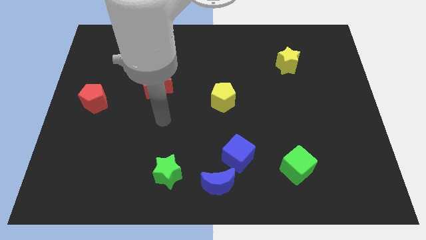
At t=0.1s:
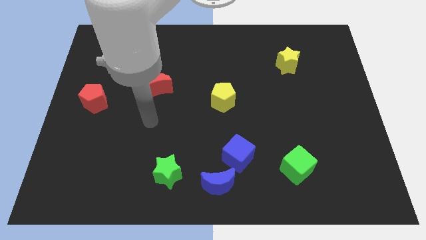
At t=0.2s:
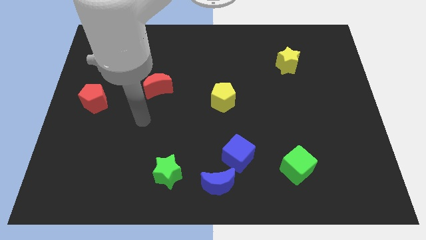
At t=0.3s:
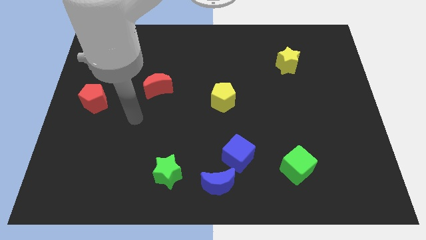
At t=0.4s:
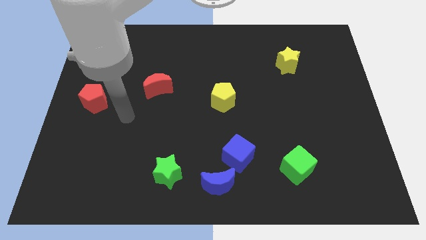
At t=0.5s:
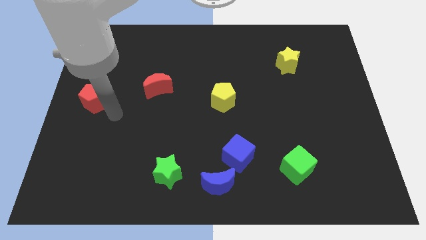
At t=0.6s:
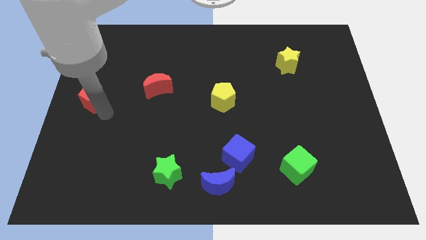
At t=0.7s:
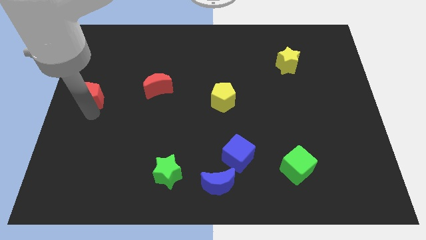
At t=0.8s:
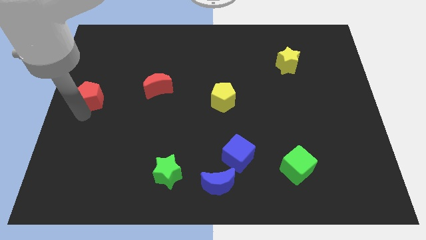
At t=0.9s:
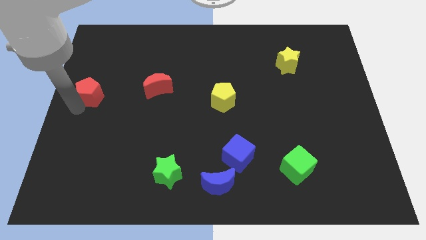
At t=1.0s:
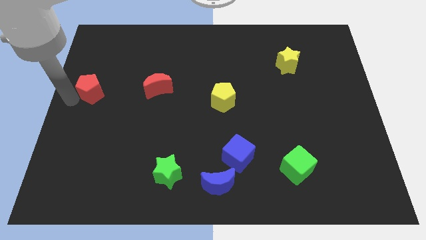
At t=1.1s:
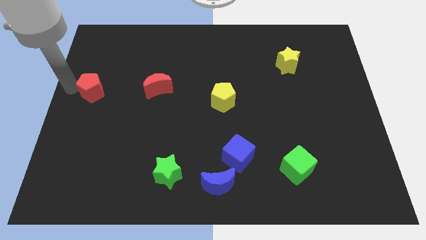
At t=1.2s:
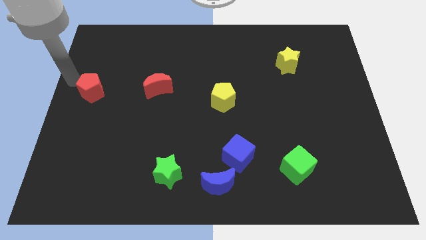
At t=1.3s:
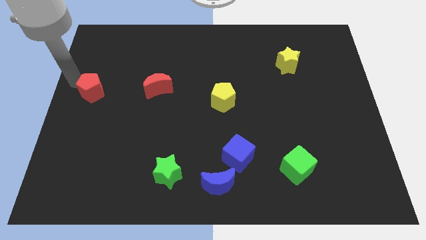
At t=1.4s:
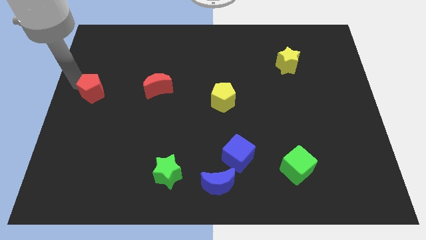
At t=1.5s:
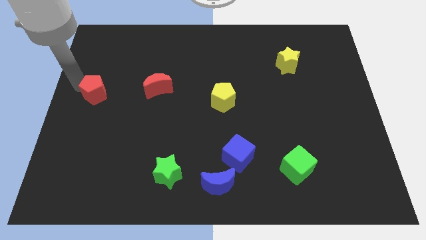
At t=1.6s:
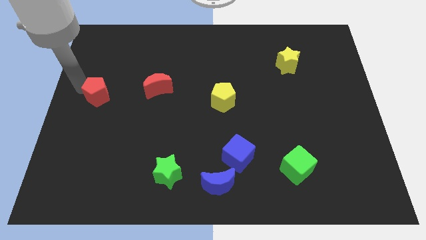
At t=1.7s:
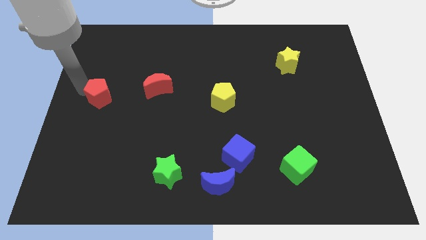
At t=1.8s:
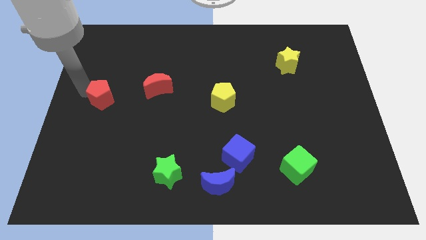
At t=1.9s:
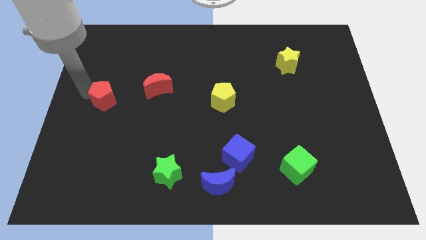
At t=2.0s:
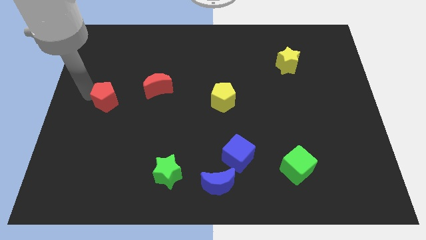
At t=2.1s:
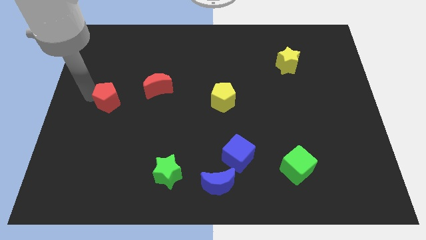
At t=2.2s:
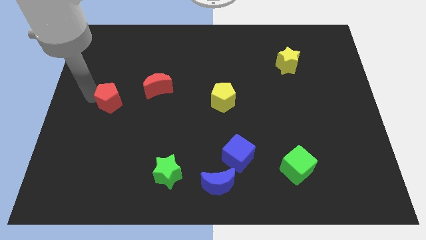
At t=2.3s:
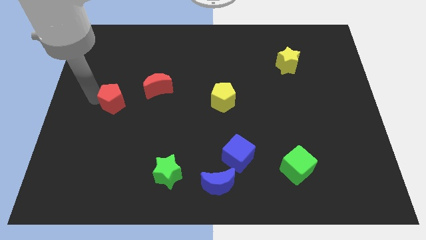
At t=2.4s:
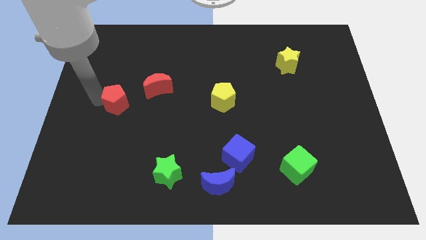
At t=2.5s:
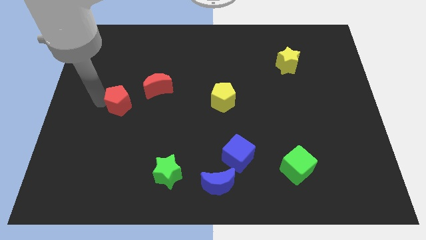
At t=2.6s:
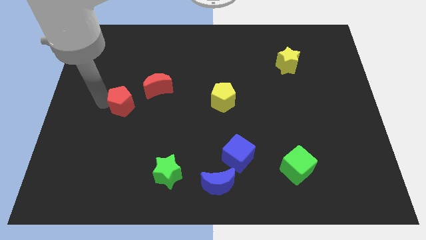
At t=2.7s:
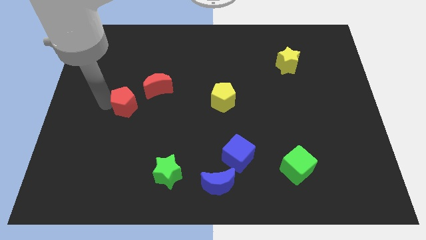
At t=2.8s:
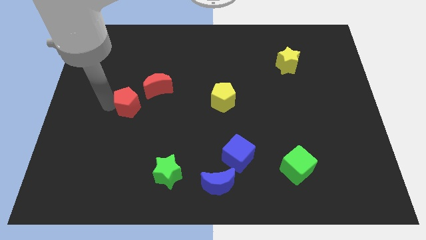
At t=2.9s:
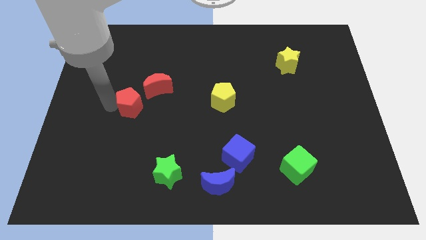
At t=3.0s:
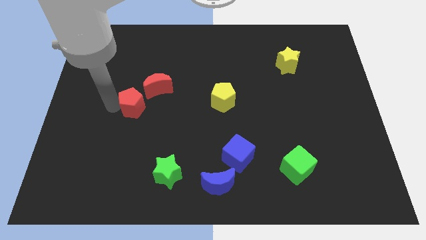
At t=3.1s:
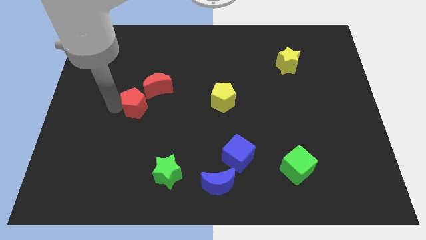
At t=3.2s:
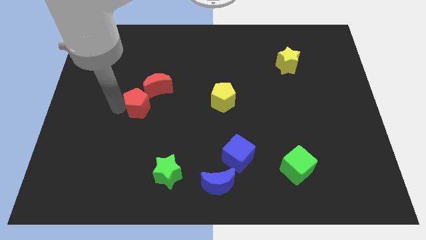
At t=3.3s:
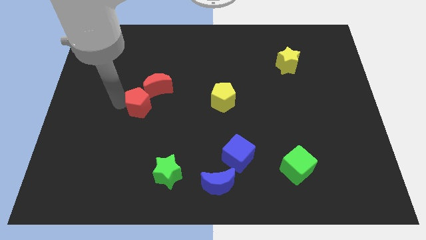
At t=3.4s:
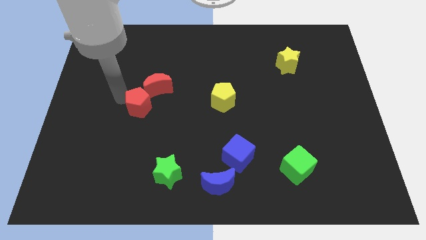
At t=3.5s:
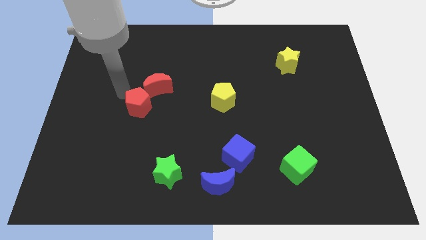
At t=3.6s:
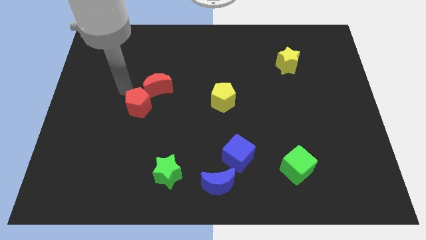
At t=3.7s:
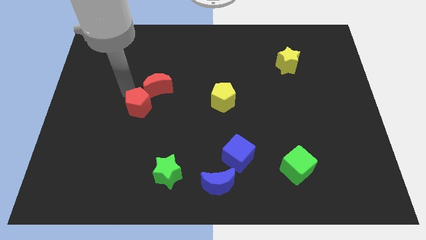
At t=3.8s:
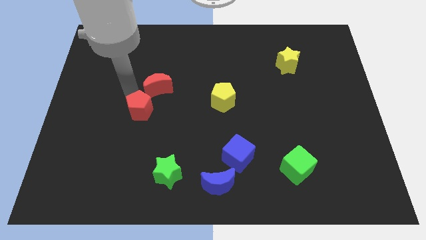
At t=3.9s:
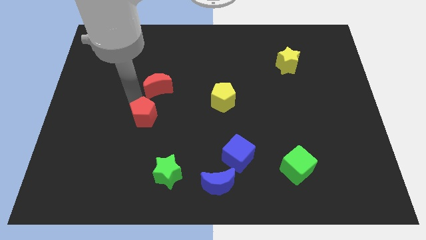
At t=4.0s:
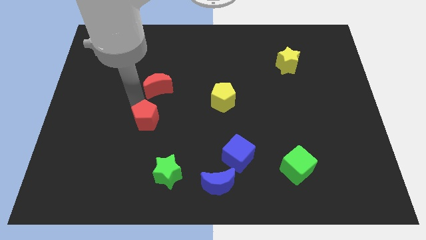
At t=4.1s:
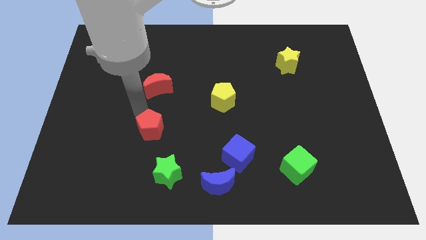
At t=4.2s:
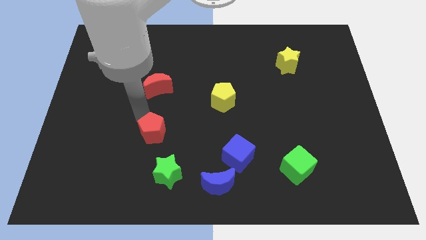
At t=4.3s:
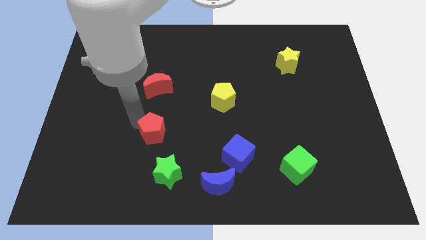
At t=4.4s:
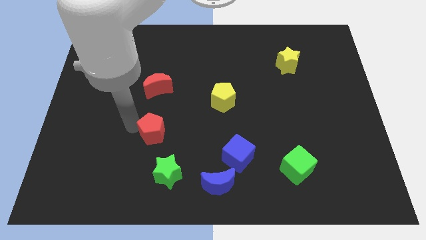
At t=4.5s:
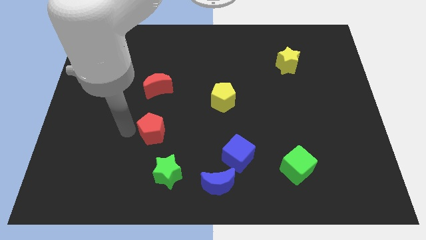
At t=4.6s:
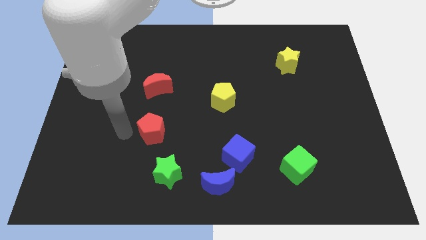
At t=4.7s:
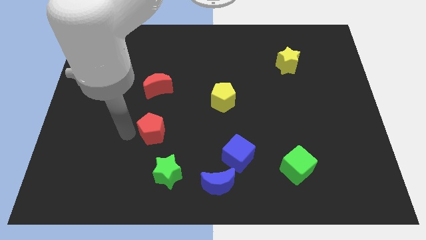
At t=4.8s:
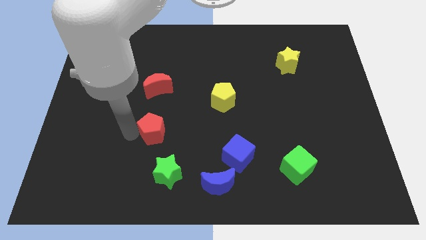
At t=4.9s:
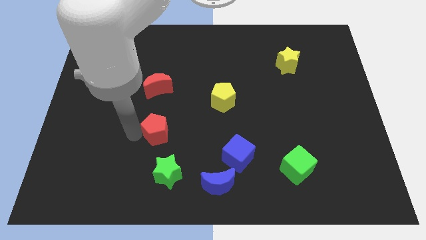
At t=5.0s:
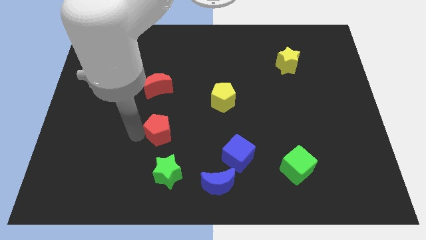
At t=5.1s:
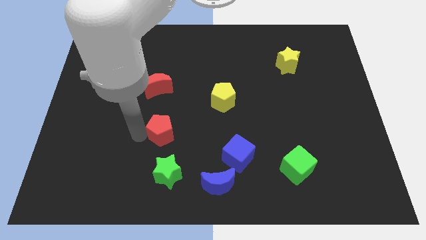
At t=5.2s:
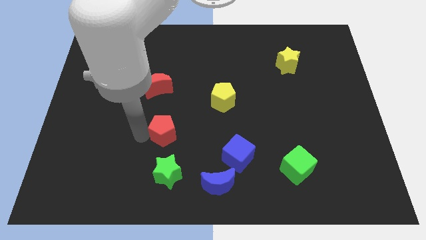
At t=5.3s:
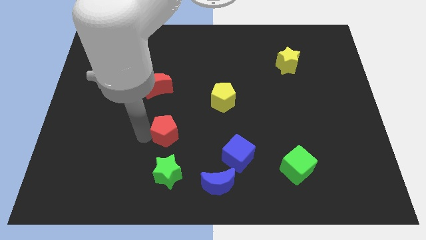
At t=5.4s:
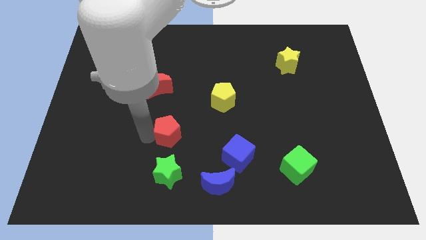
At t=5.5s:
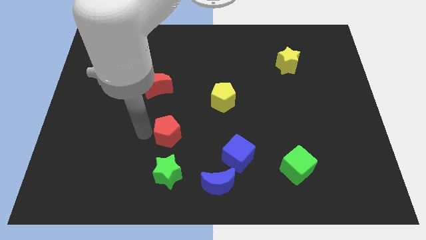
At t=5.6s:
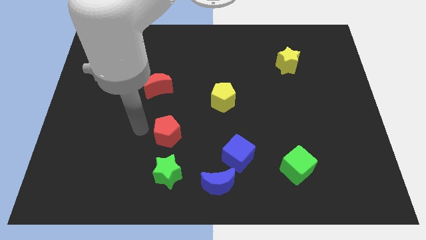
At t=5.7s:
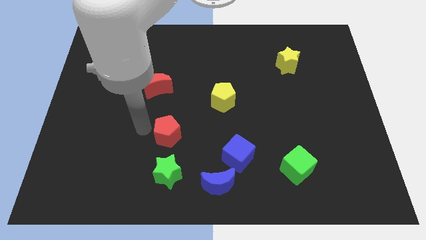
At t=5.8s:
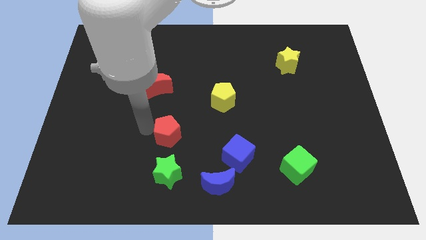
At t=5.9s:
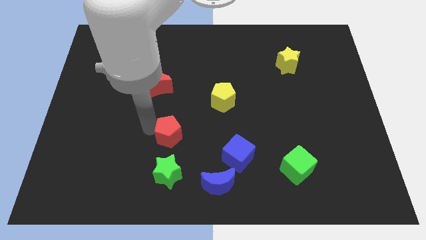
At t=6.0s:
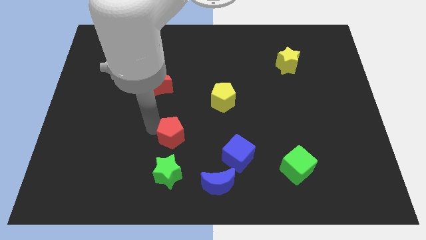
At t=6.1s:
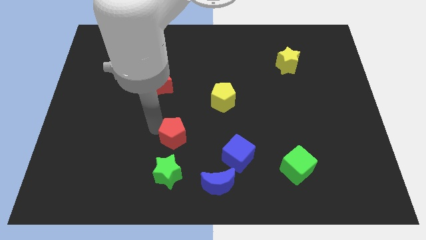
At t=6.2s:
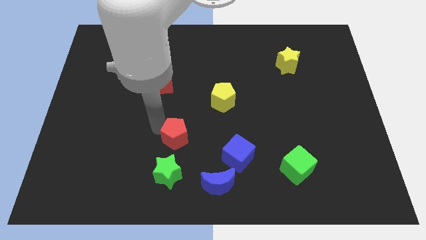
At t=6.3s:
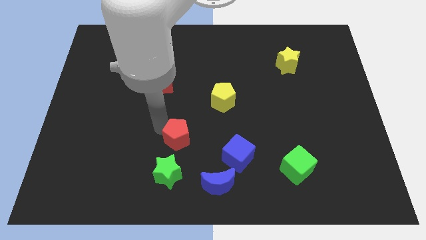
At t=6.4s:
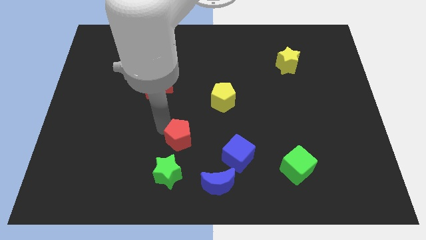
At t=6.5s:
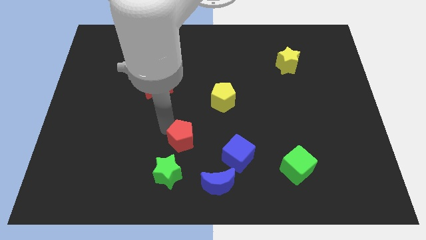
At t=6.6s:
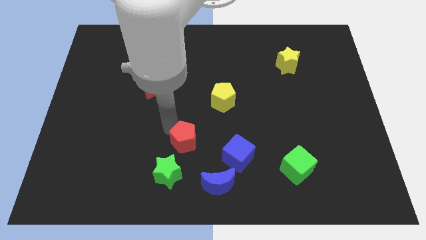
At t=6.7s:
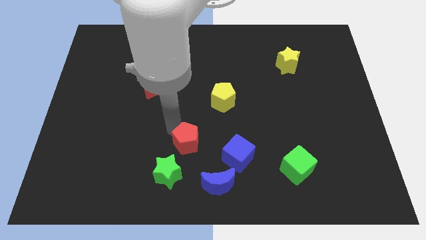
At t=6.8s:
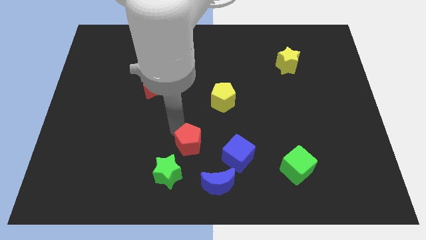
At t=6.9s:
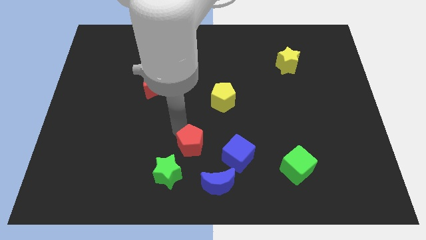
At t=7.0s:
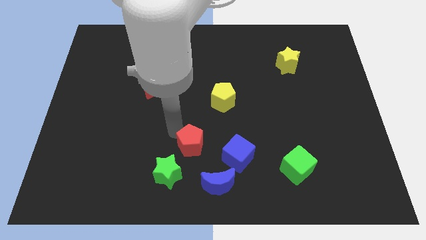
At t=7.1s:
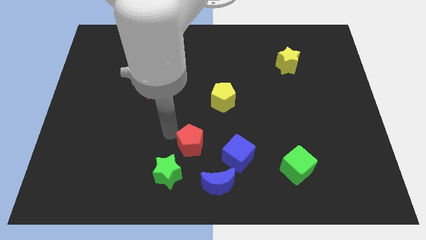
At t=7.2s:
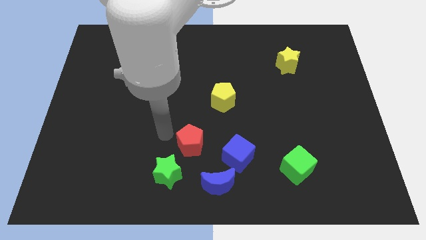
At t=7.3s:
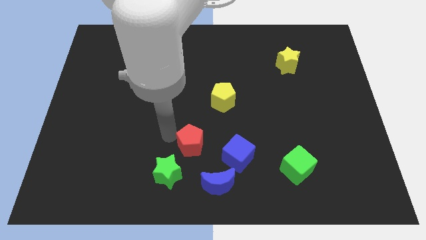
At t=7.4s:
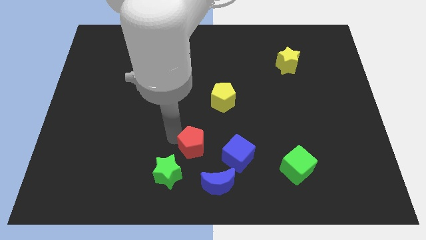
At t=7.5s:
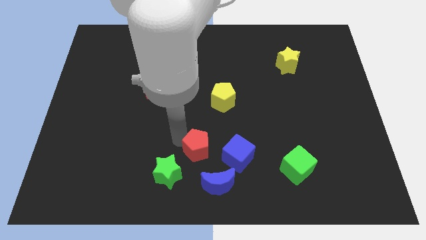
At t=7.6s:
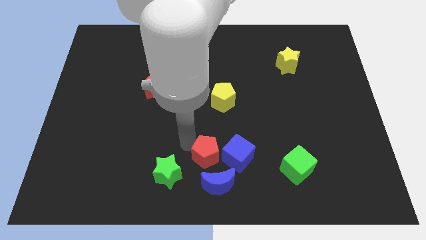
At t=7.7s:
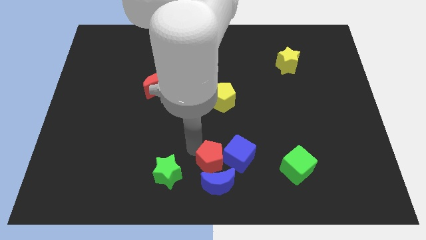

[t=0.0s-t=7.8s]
push the red pentagon to the blue cube
